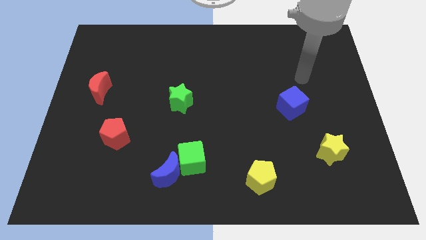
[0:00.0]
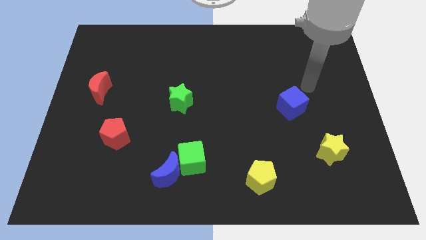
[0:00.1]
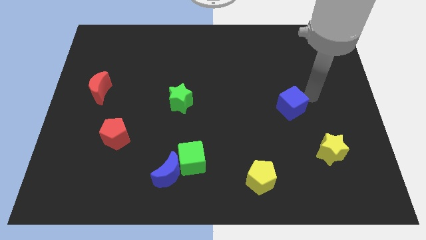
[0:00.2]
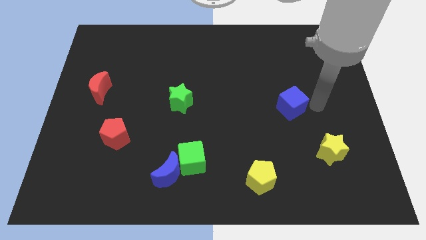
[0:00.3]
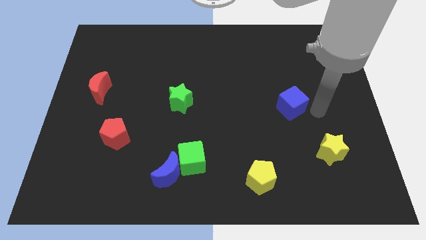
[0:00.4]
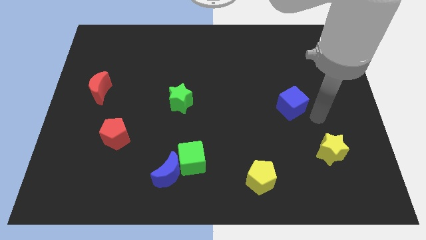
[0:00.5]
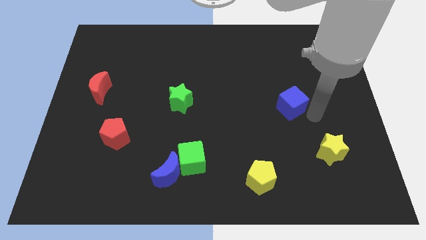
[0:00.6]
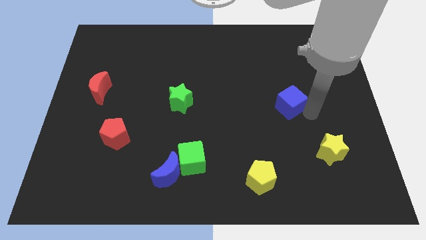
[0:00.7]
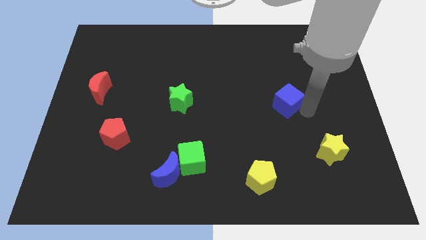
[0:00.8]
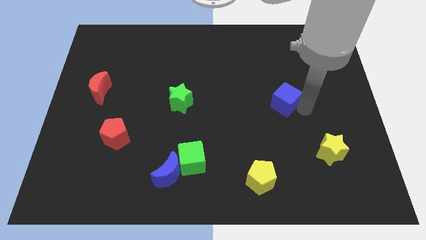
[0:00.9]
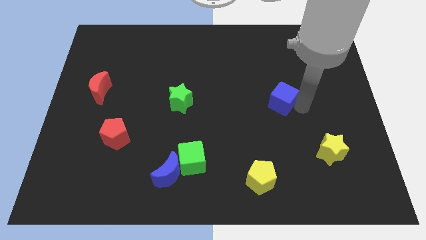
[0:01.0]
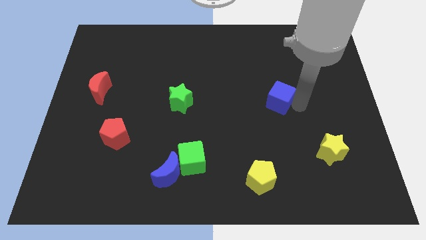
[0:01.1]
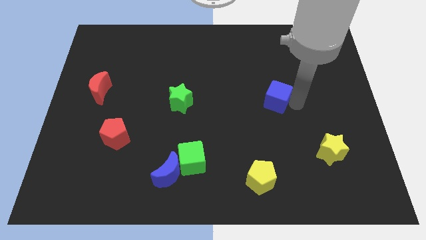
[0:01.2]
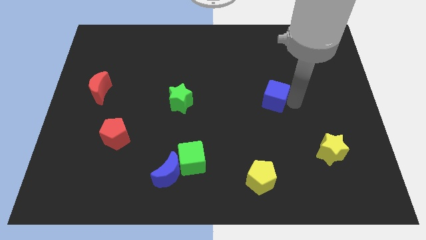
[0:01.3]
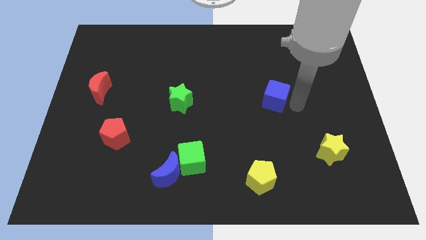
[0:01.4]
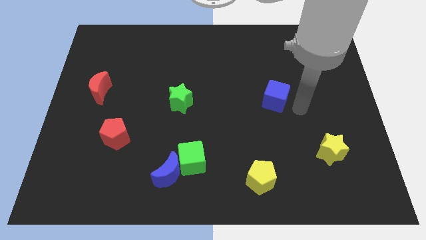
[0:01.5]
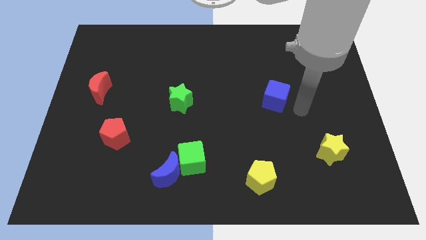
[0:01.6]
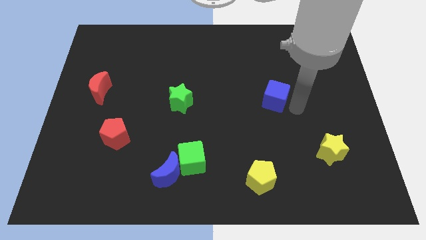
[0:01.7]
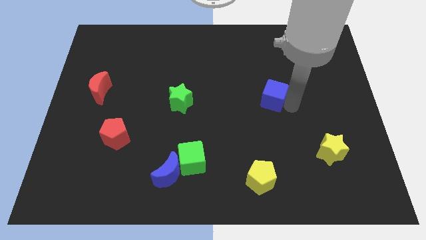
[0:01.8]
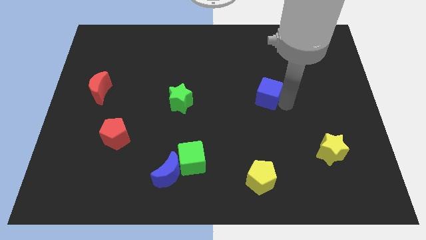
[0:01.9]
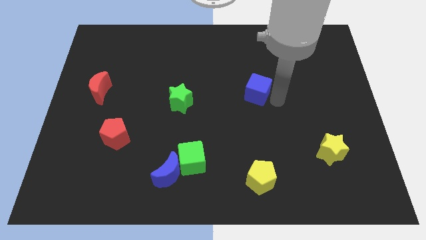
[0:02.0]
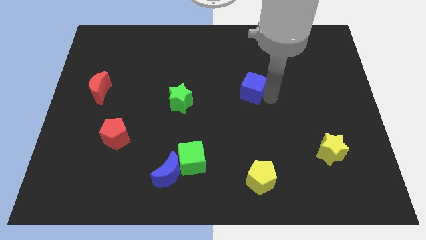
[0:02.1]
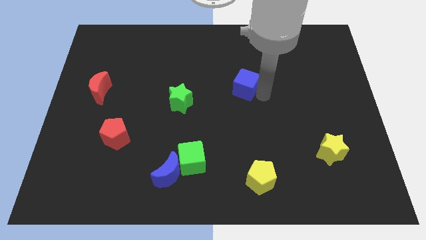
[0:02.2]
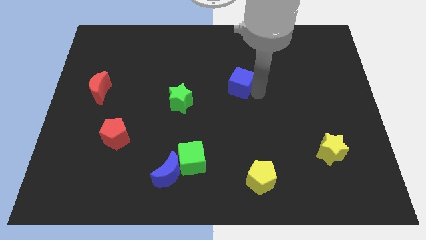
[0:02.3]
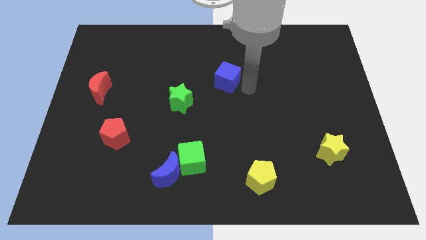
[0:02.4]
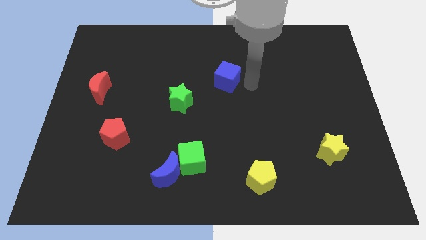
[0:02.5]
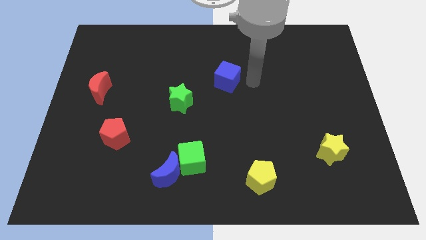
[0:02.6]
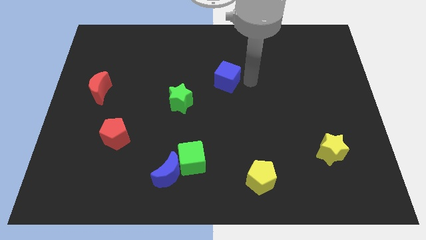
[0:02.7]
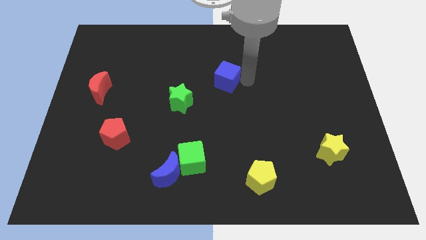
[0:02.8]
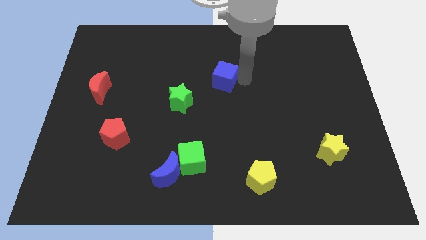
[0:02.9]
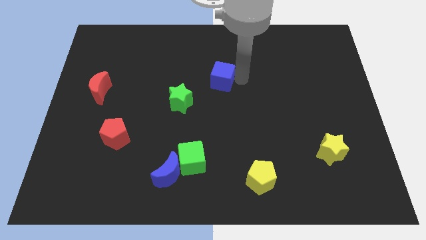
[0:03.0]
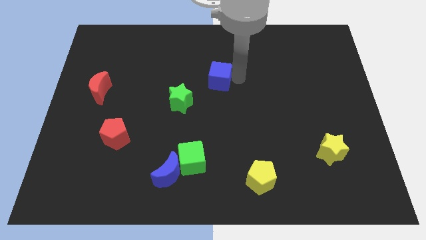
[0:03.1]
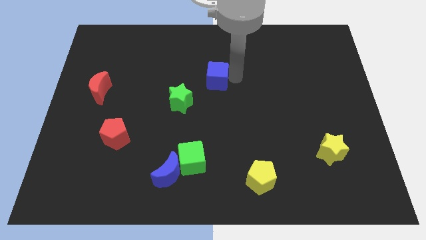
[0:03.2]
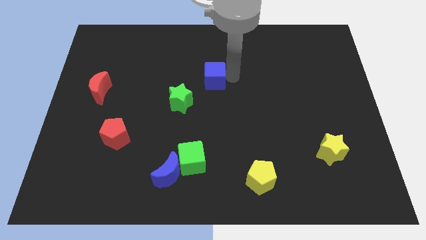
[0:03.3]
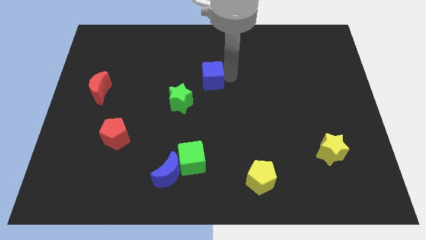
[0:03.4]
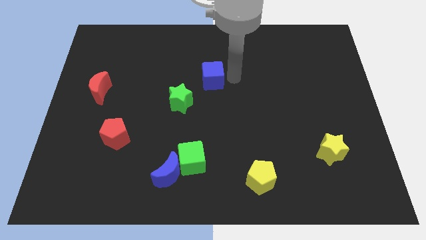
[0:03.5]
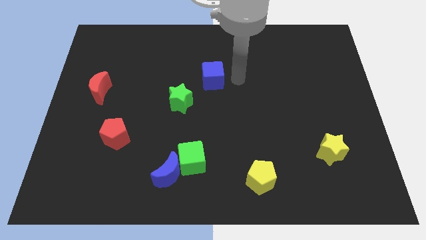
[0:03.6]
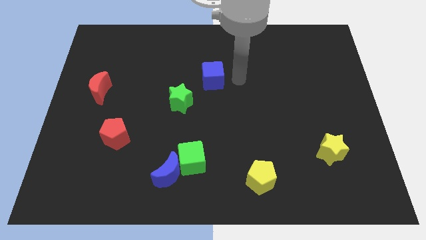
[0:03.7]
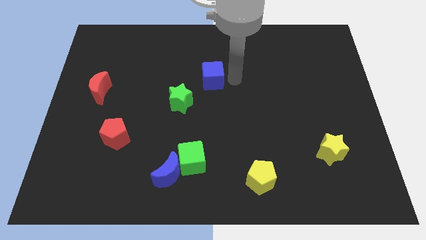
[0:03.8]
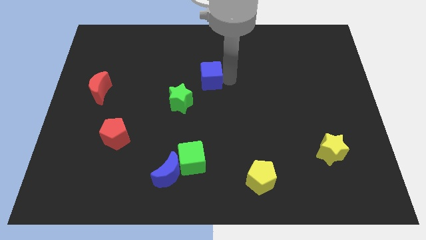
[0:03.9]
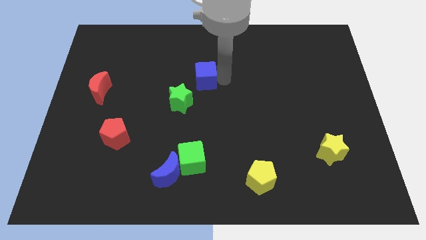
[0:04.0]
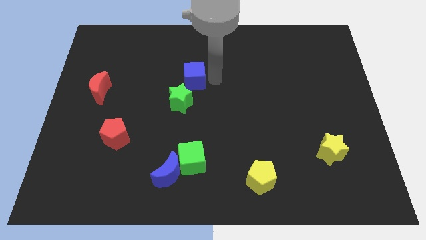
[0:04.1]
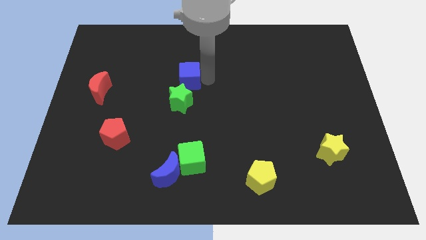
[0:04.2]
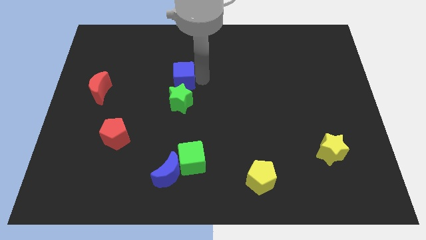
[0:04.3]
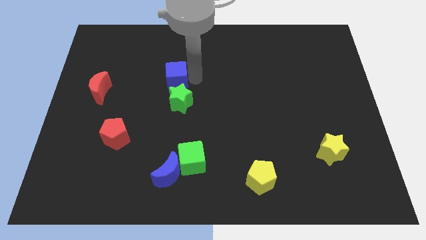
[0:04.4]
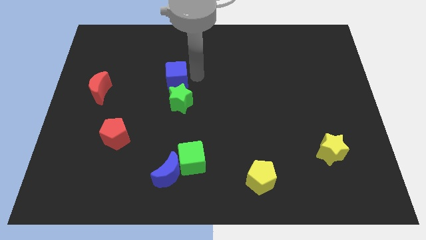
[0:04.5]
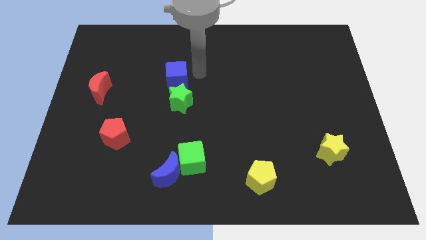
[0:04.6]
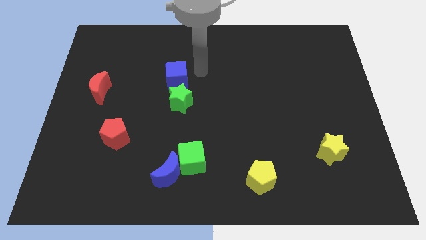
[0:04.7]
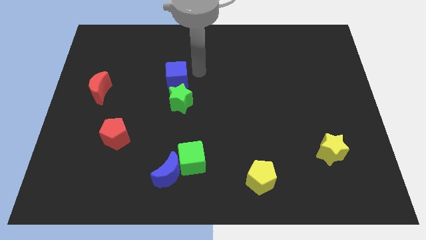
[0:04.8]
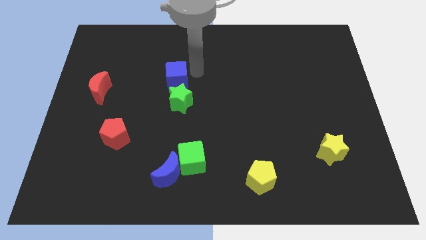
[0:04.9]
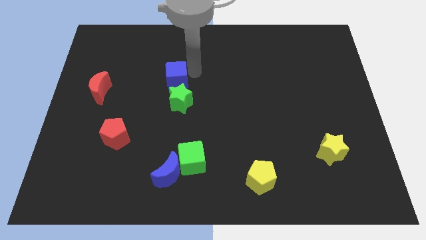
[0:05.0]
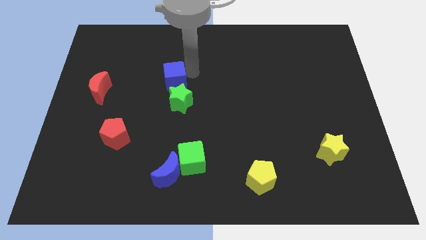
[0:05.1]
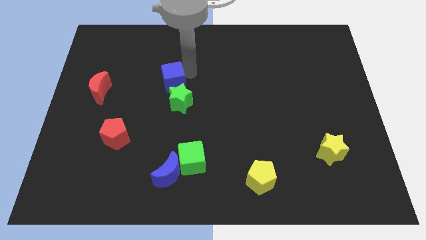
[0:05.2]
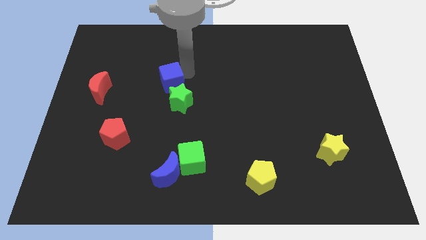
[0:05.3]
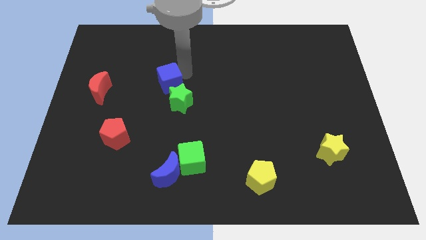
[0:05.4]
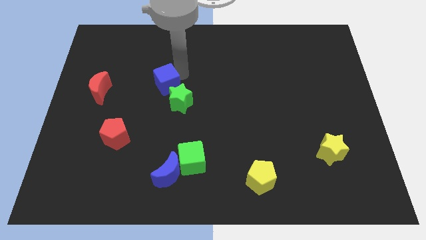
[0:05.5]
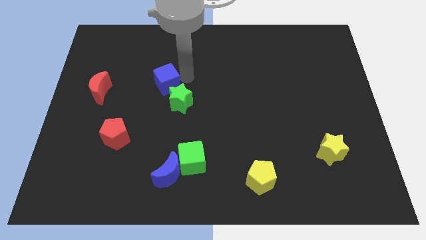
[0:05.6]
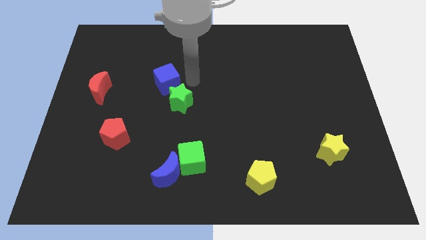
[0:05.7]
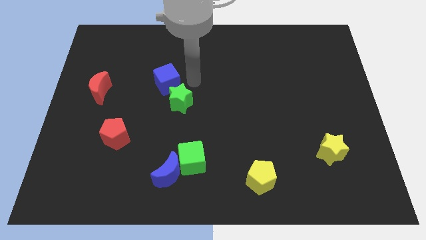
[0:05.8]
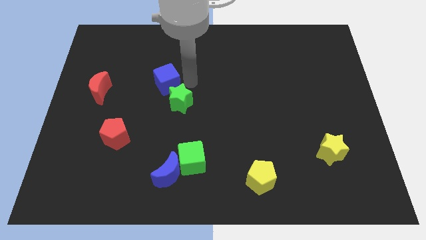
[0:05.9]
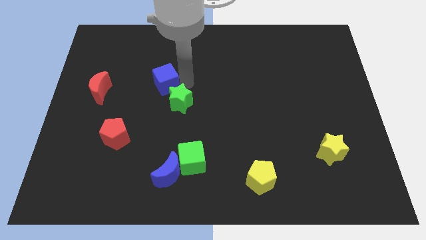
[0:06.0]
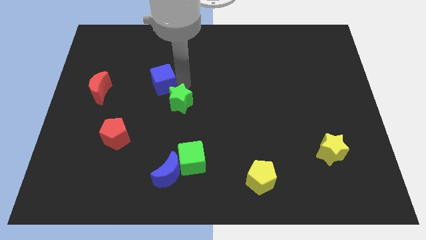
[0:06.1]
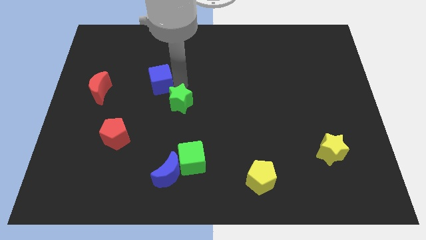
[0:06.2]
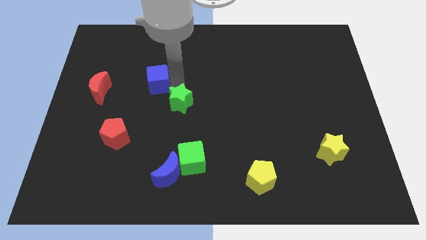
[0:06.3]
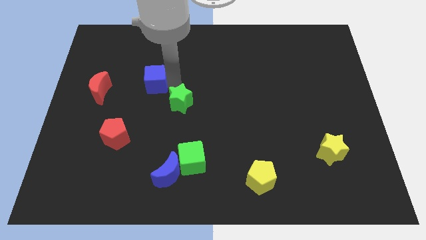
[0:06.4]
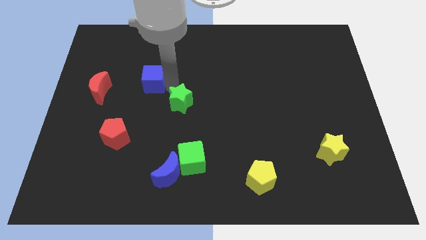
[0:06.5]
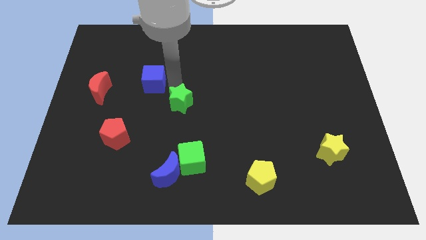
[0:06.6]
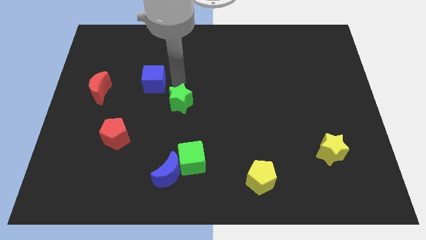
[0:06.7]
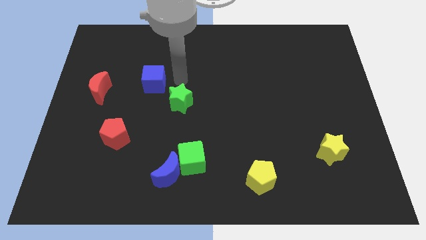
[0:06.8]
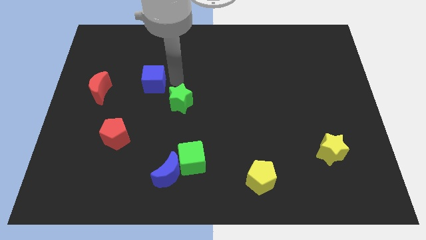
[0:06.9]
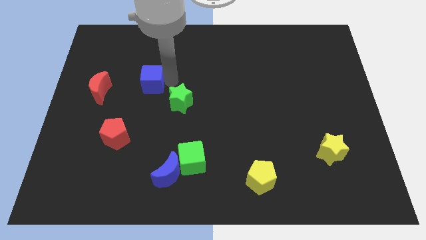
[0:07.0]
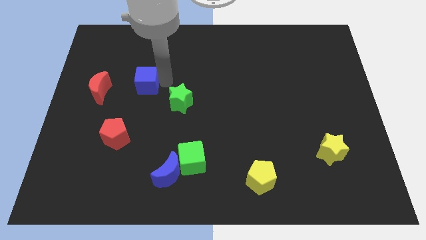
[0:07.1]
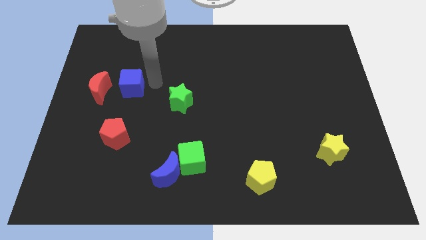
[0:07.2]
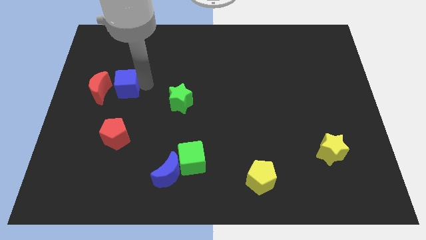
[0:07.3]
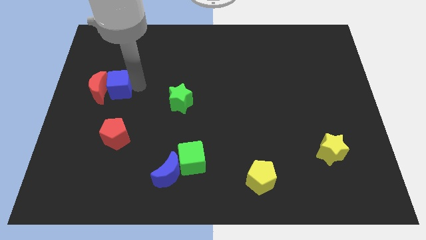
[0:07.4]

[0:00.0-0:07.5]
move the blue cube close to the red moon
